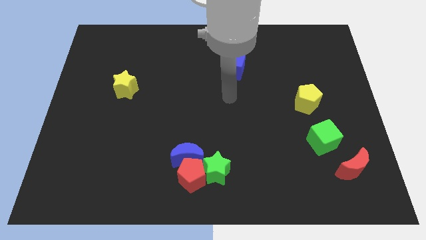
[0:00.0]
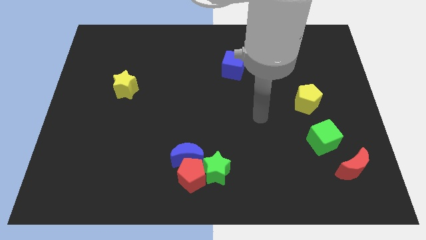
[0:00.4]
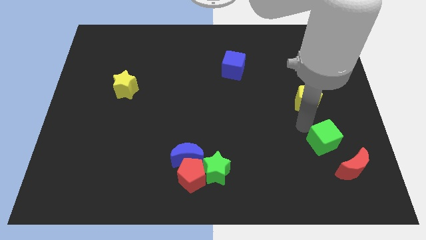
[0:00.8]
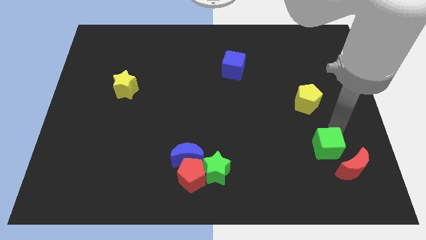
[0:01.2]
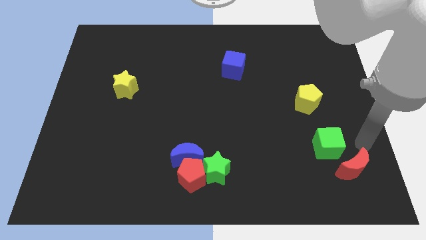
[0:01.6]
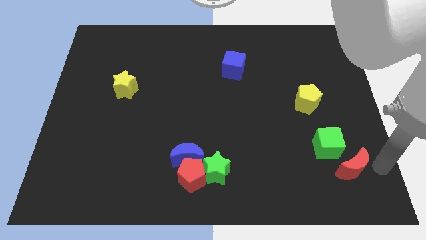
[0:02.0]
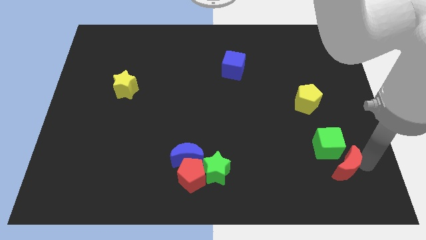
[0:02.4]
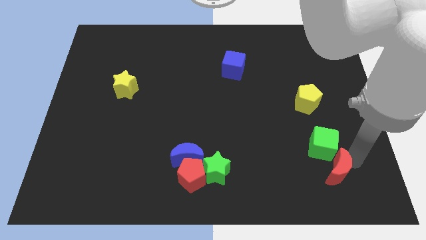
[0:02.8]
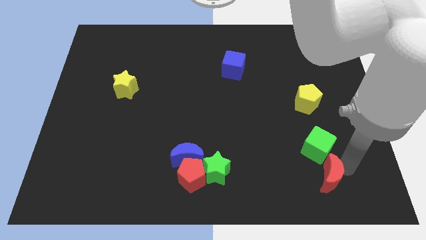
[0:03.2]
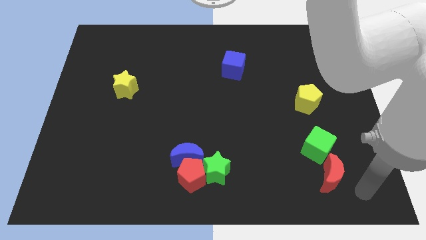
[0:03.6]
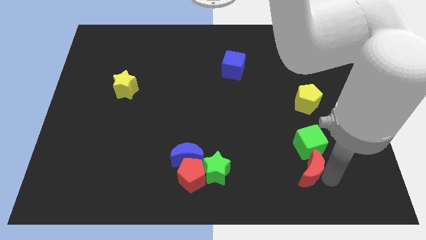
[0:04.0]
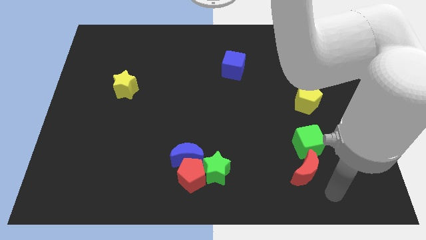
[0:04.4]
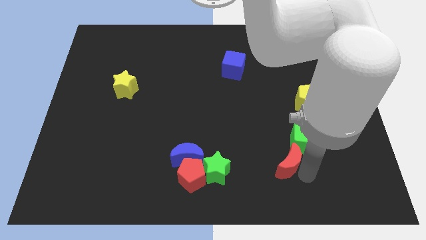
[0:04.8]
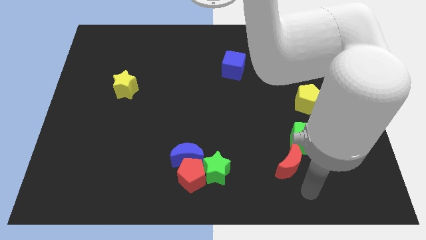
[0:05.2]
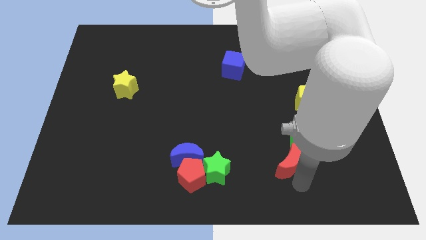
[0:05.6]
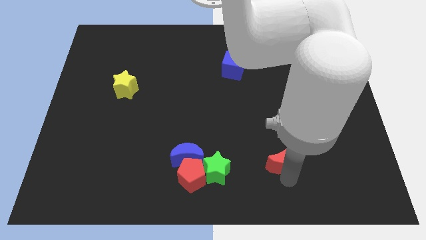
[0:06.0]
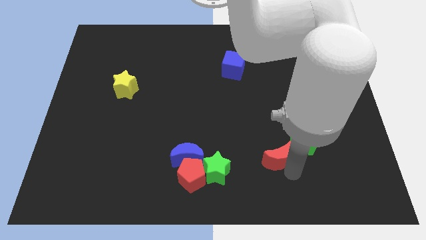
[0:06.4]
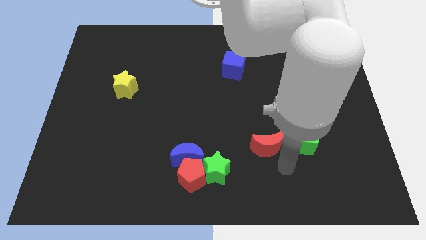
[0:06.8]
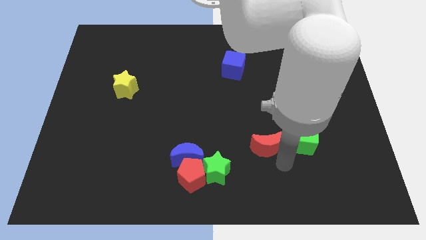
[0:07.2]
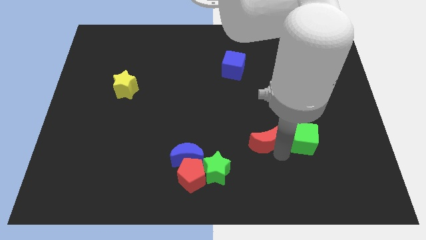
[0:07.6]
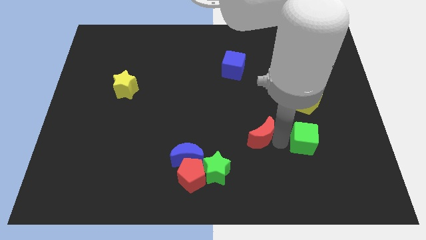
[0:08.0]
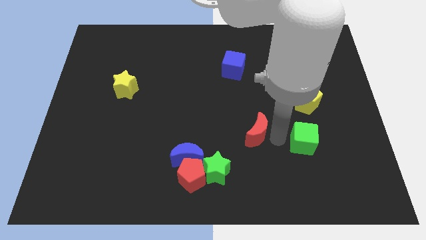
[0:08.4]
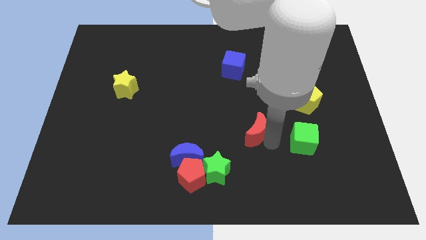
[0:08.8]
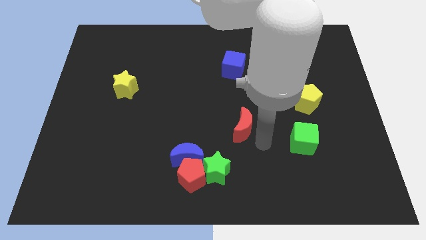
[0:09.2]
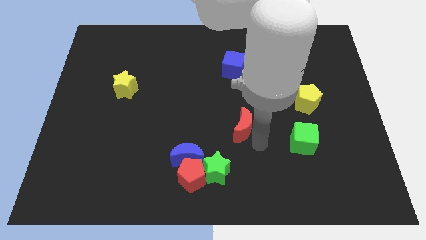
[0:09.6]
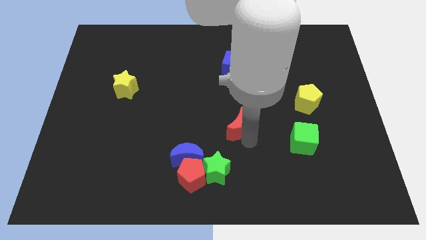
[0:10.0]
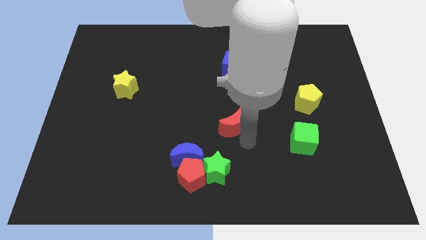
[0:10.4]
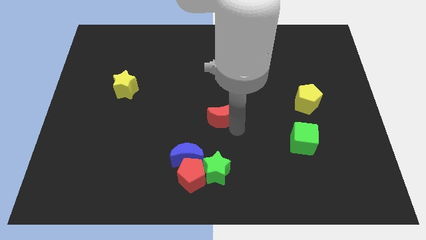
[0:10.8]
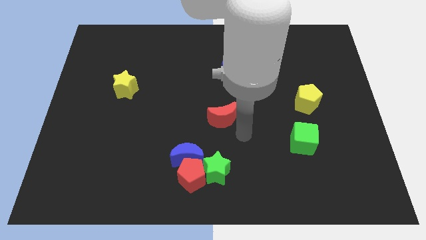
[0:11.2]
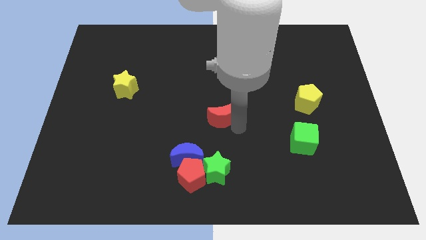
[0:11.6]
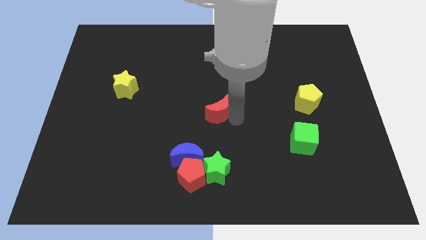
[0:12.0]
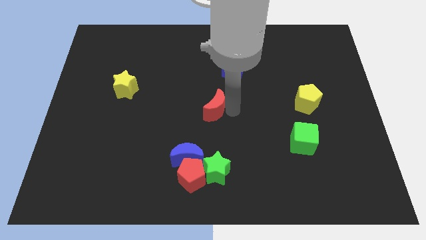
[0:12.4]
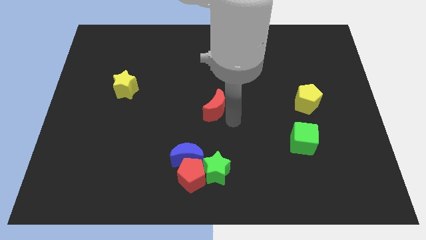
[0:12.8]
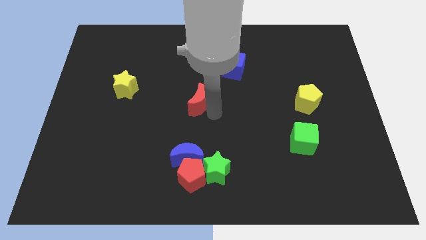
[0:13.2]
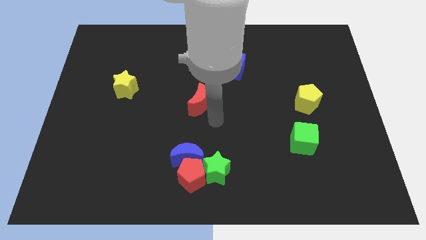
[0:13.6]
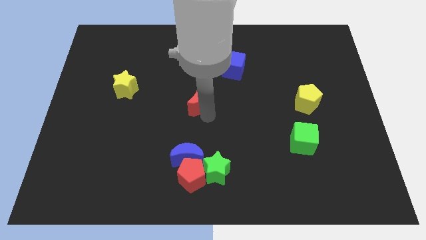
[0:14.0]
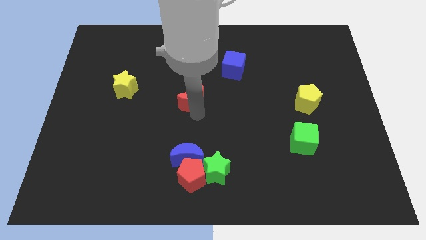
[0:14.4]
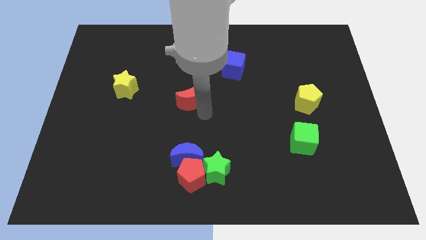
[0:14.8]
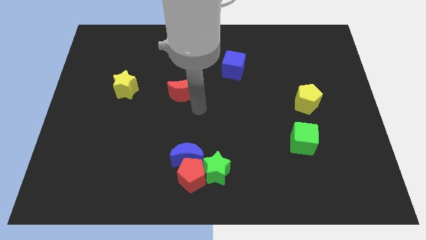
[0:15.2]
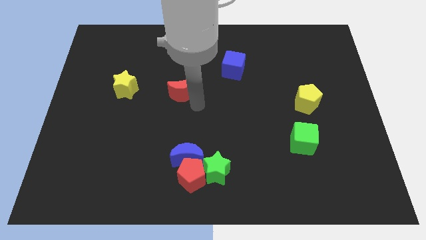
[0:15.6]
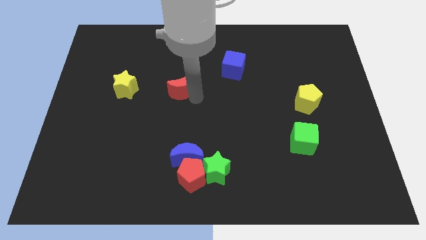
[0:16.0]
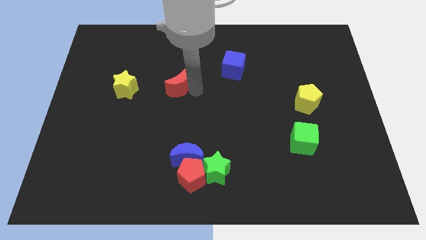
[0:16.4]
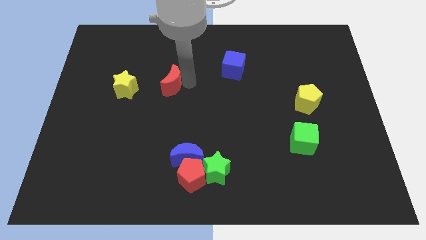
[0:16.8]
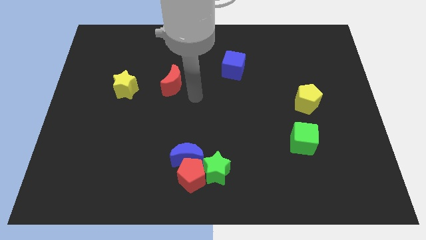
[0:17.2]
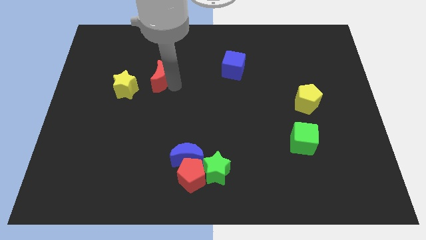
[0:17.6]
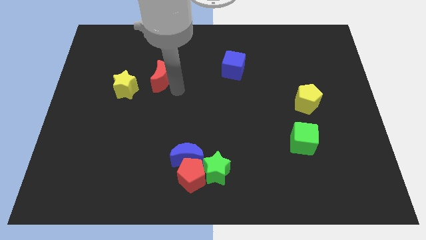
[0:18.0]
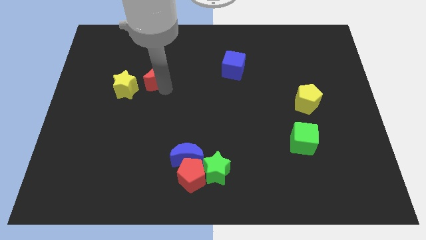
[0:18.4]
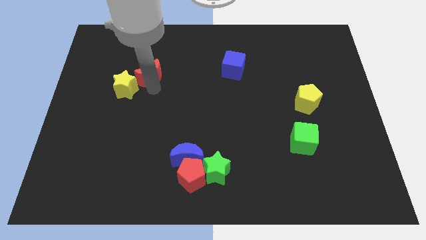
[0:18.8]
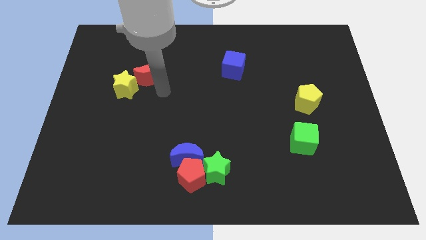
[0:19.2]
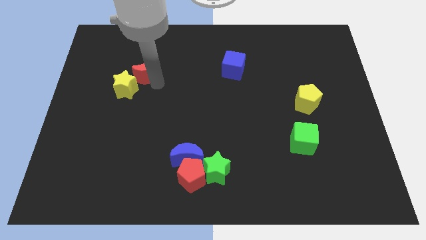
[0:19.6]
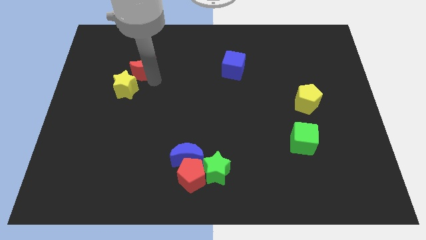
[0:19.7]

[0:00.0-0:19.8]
push the red moon to the top side of the yellow star

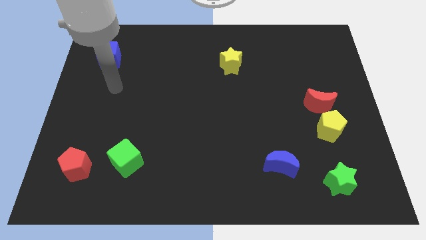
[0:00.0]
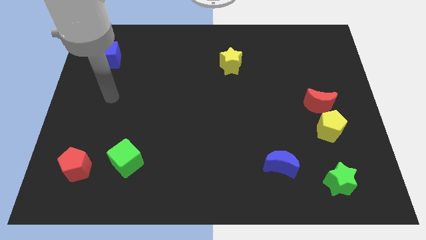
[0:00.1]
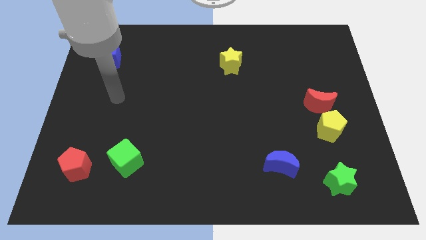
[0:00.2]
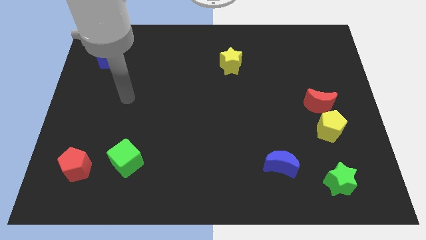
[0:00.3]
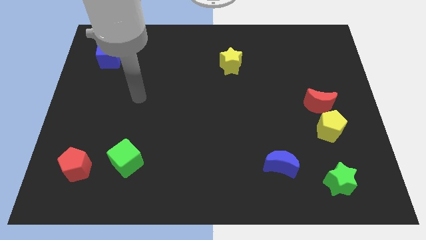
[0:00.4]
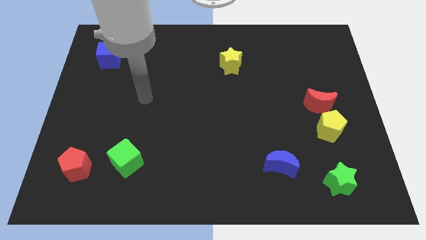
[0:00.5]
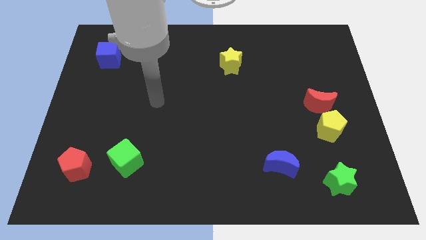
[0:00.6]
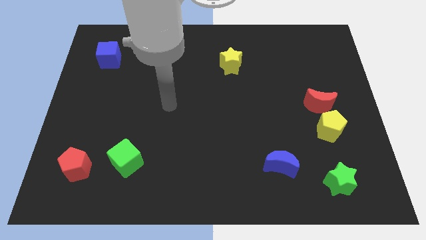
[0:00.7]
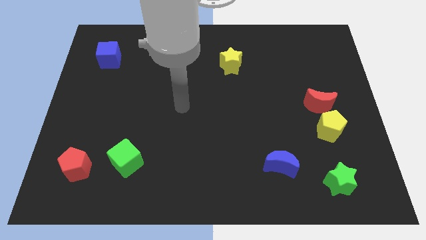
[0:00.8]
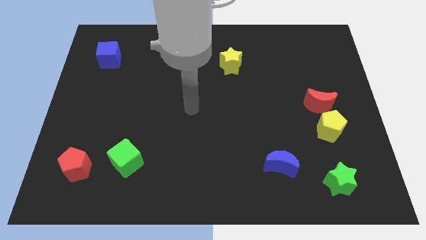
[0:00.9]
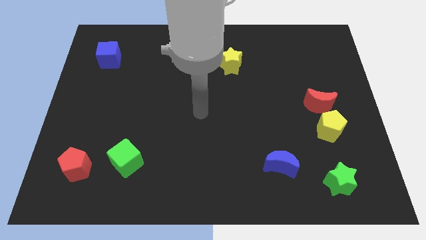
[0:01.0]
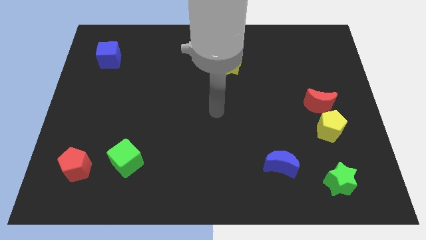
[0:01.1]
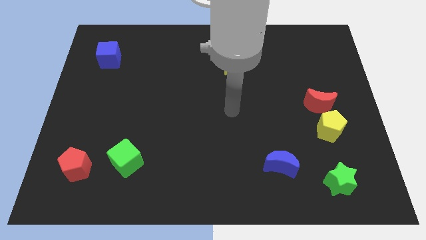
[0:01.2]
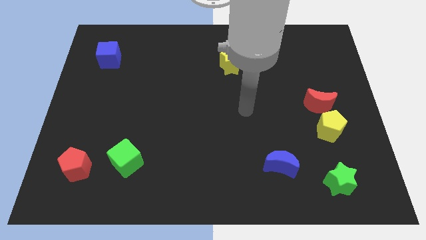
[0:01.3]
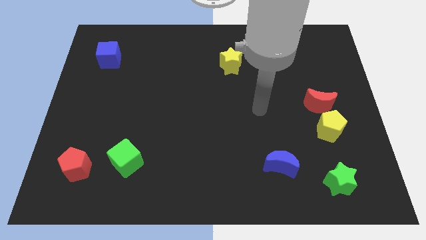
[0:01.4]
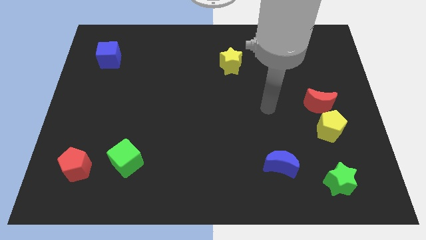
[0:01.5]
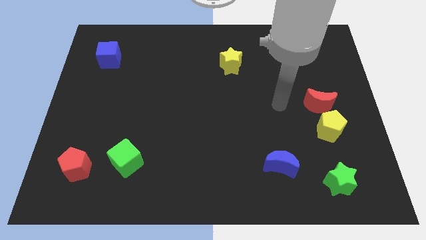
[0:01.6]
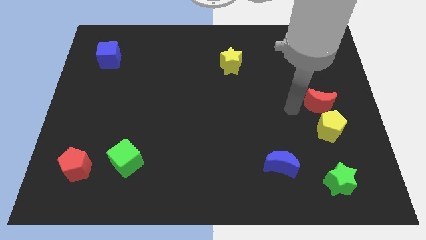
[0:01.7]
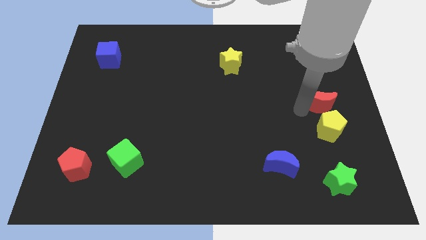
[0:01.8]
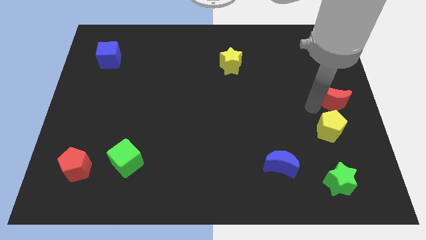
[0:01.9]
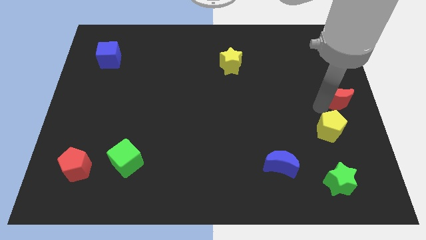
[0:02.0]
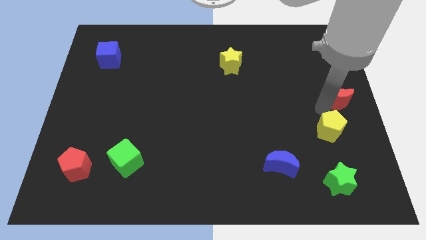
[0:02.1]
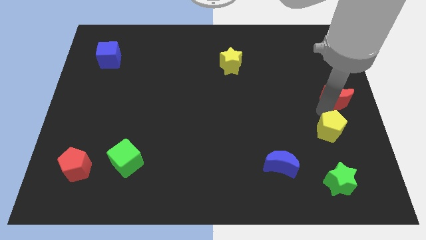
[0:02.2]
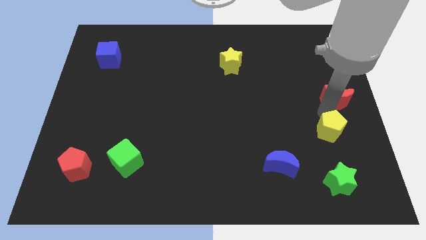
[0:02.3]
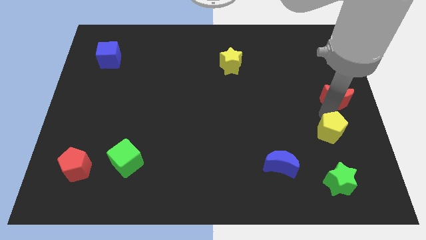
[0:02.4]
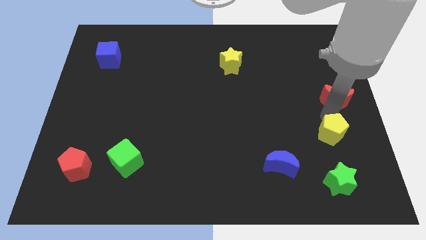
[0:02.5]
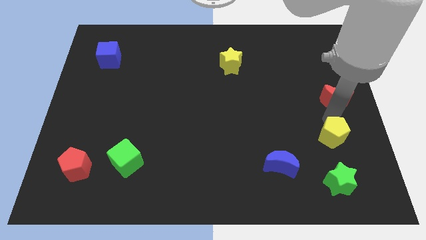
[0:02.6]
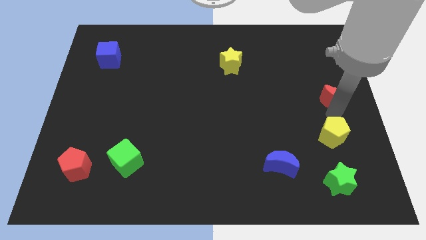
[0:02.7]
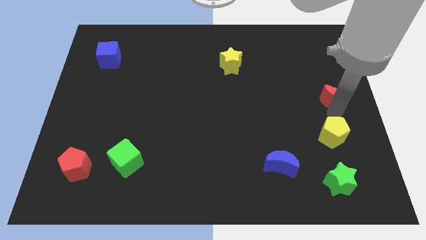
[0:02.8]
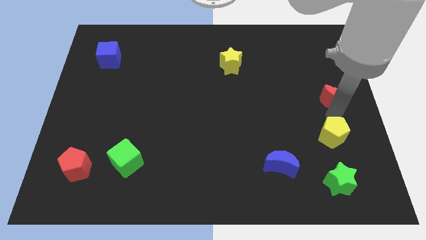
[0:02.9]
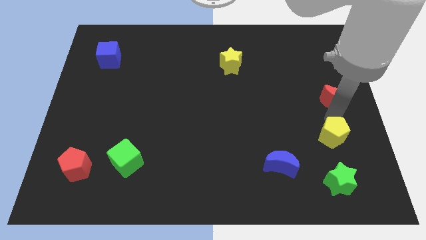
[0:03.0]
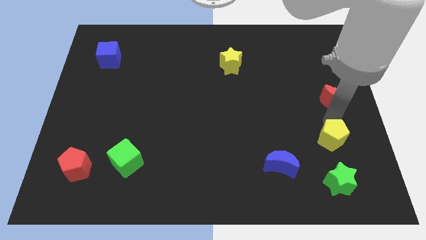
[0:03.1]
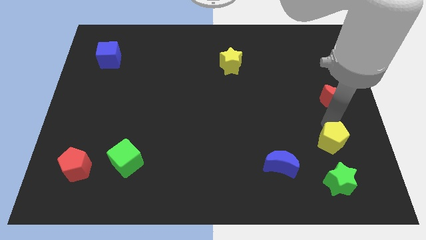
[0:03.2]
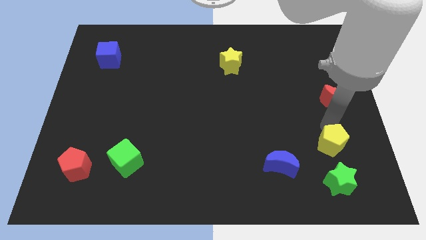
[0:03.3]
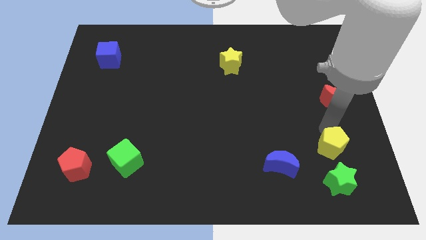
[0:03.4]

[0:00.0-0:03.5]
move the yellow pentagon just right of the blue moon
